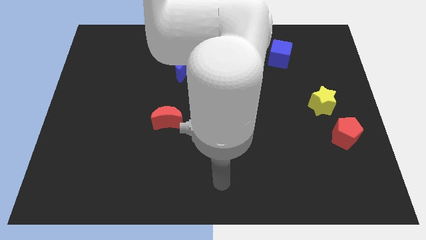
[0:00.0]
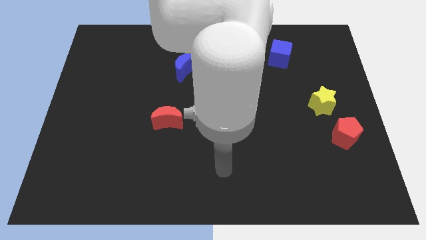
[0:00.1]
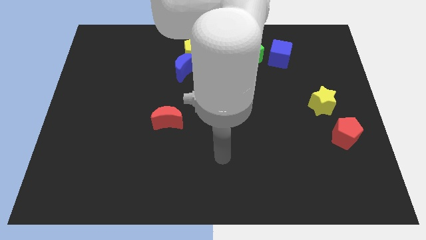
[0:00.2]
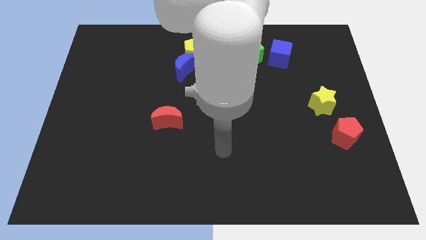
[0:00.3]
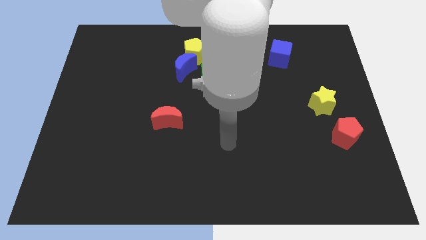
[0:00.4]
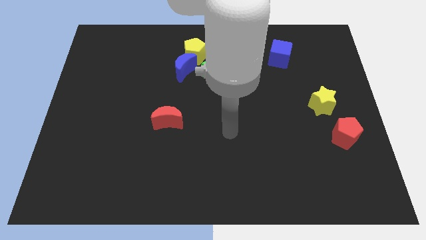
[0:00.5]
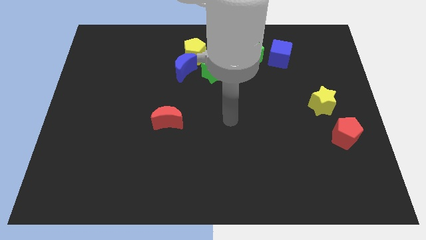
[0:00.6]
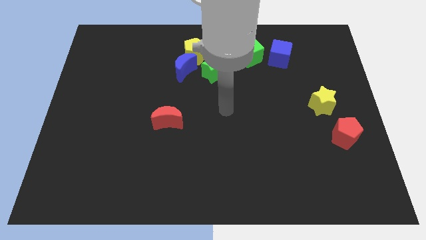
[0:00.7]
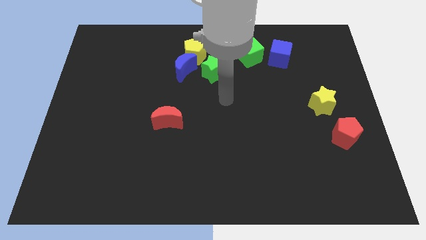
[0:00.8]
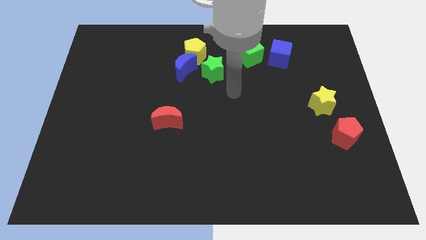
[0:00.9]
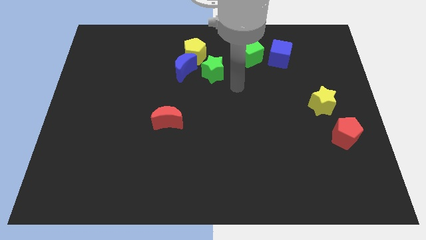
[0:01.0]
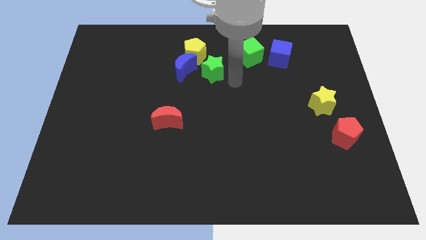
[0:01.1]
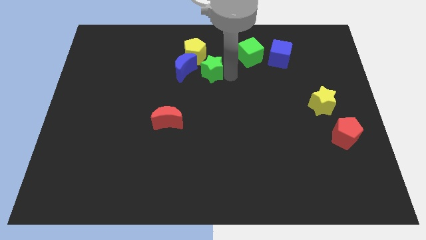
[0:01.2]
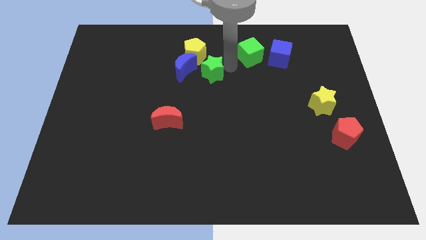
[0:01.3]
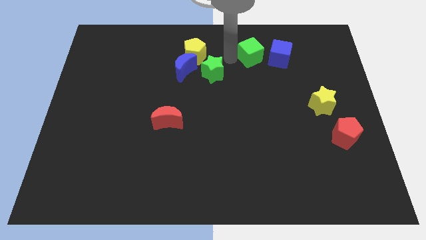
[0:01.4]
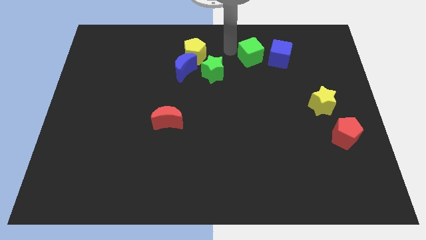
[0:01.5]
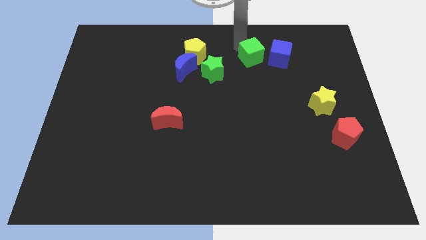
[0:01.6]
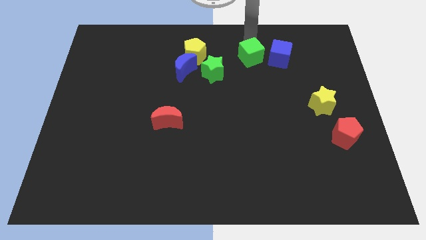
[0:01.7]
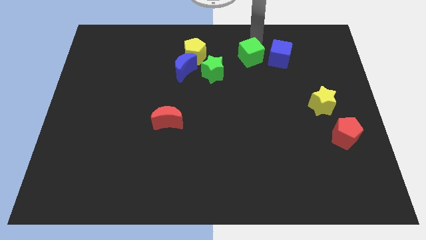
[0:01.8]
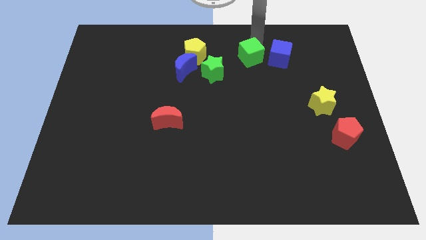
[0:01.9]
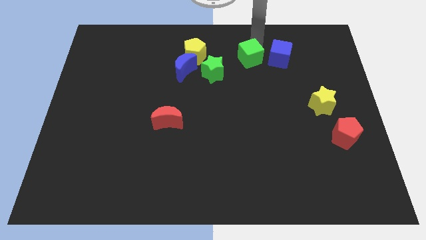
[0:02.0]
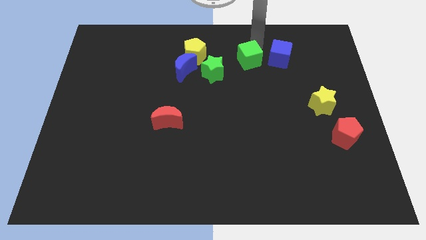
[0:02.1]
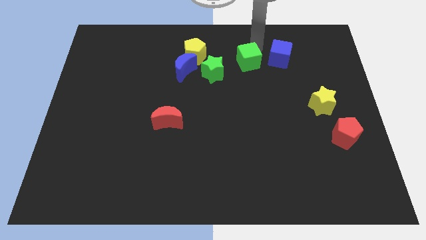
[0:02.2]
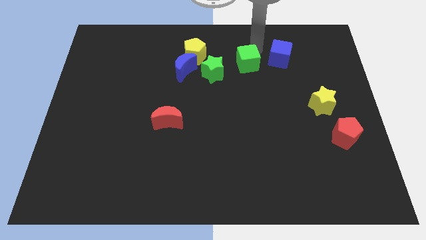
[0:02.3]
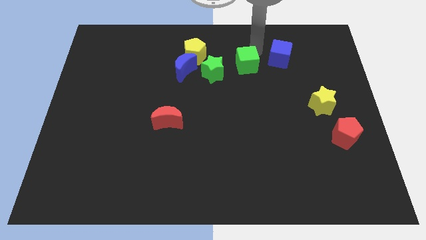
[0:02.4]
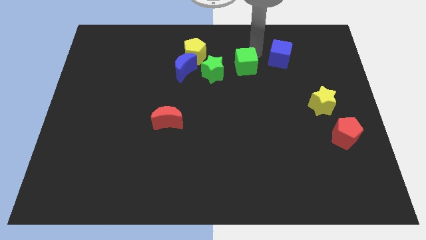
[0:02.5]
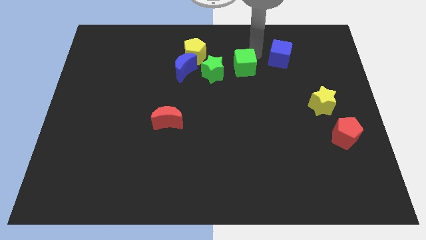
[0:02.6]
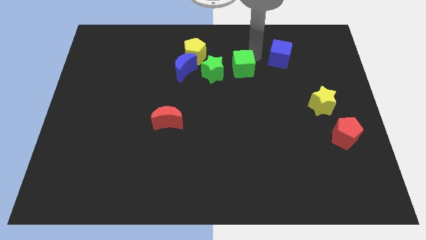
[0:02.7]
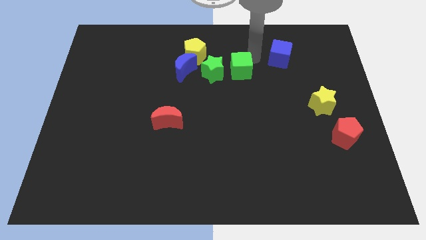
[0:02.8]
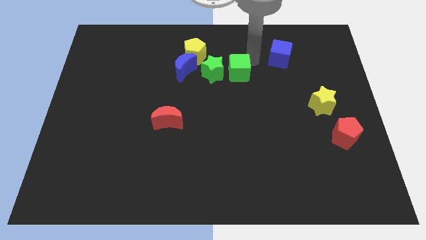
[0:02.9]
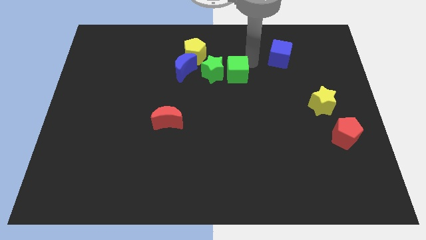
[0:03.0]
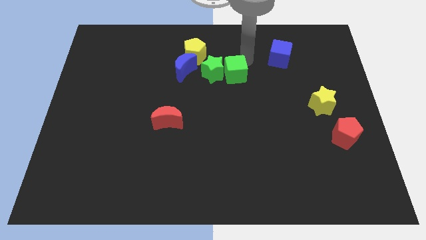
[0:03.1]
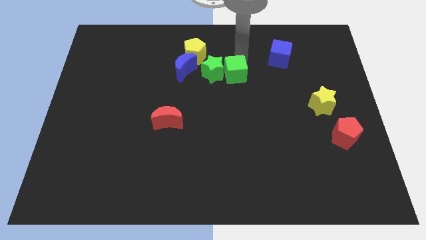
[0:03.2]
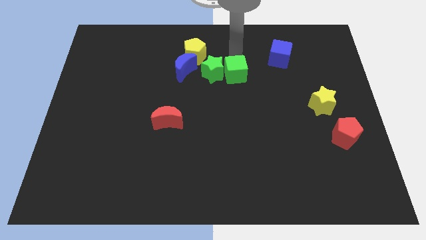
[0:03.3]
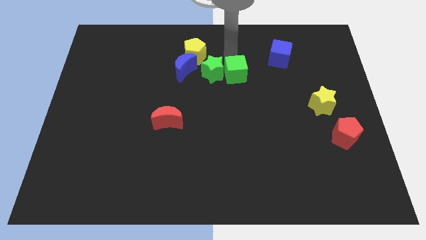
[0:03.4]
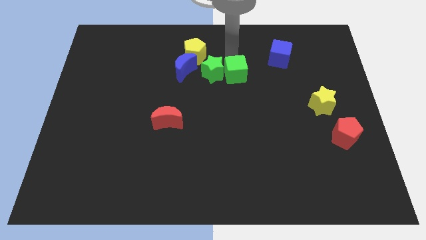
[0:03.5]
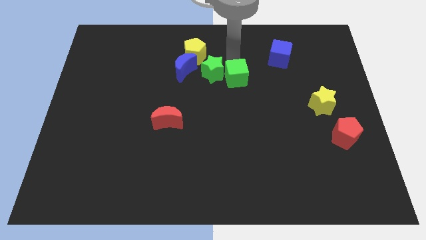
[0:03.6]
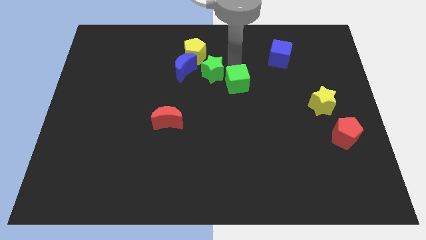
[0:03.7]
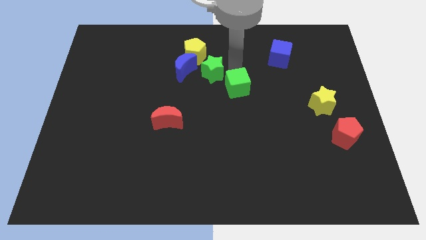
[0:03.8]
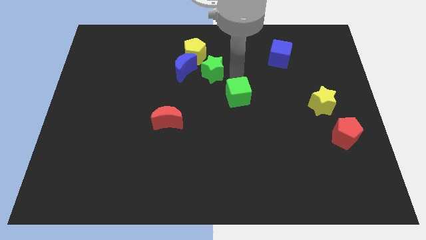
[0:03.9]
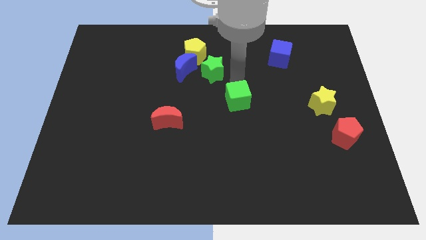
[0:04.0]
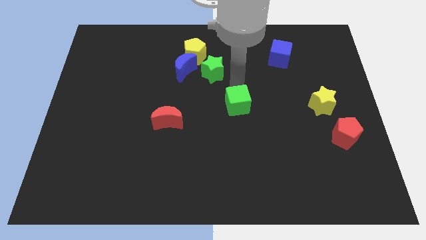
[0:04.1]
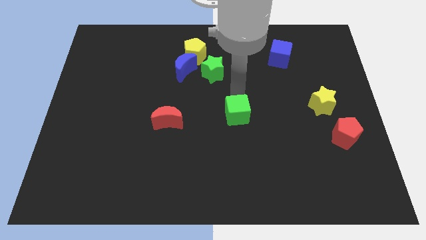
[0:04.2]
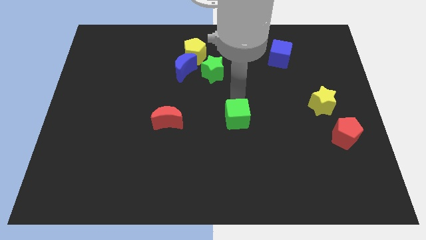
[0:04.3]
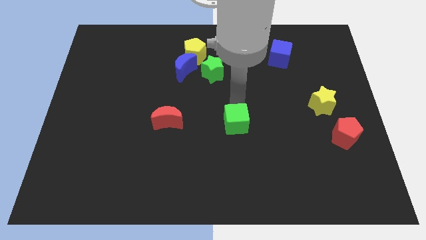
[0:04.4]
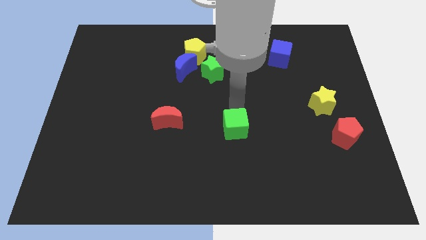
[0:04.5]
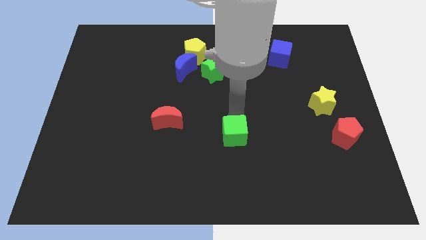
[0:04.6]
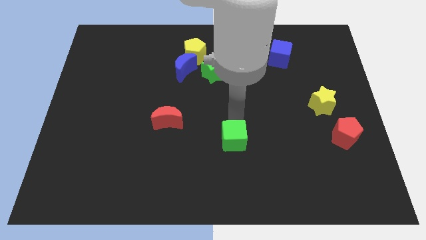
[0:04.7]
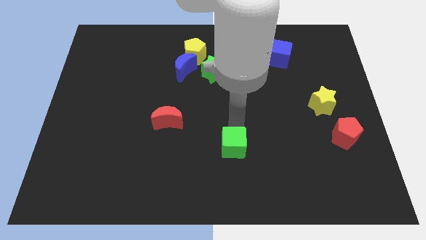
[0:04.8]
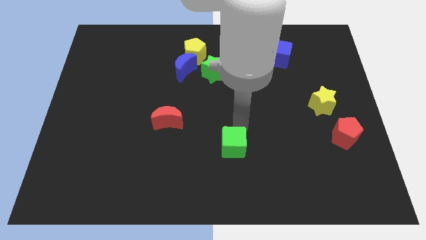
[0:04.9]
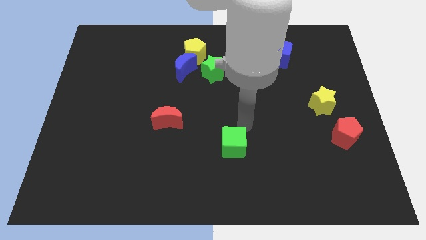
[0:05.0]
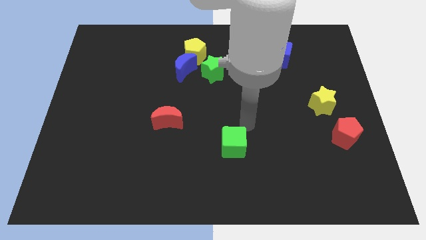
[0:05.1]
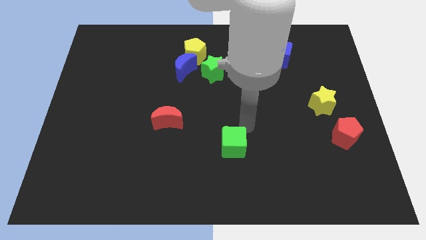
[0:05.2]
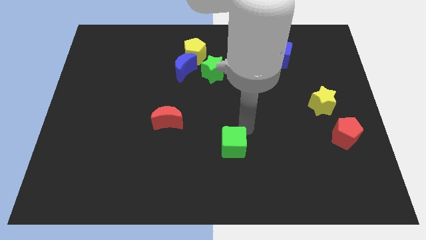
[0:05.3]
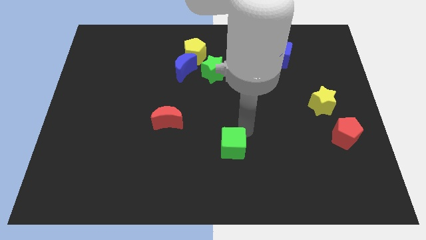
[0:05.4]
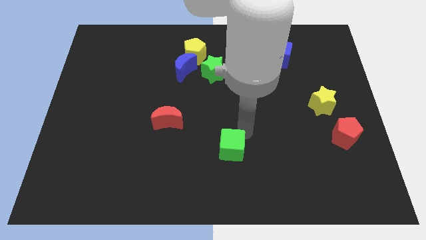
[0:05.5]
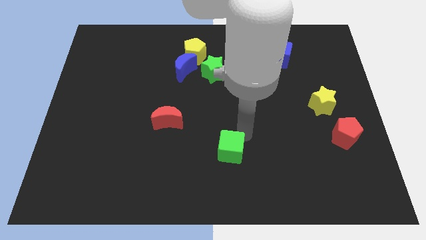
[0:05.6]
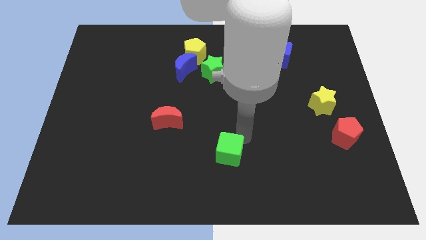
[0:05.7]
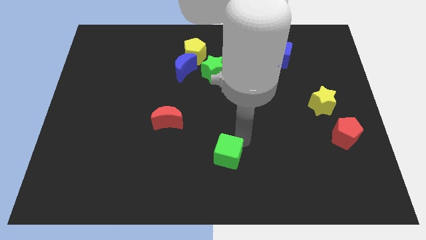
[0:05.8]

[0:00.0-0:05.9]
move the green cube to the bottom side

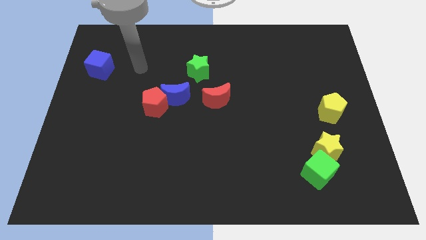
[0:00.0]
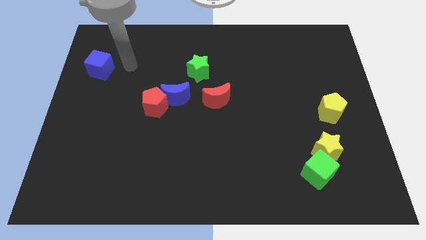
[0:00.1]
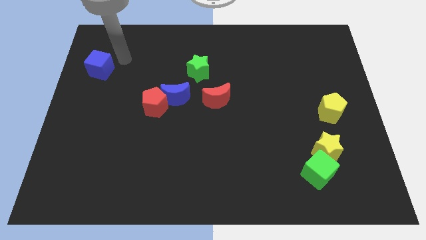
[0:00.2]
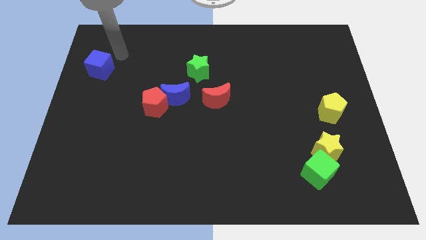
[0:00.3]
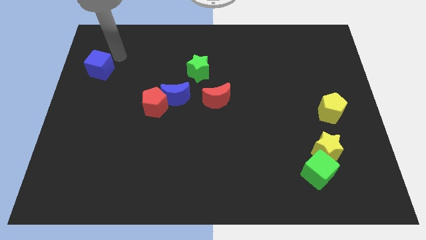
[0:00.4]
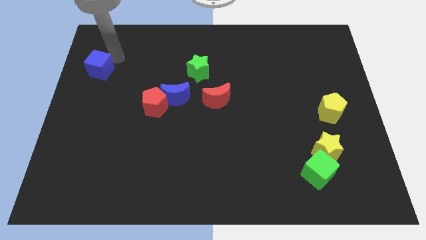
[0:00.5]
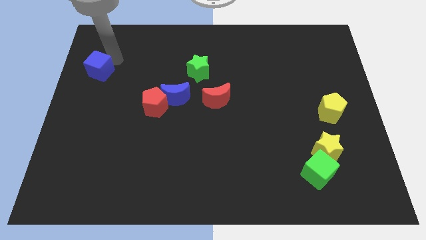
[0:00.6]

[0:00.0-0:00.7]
move the blue cube to the left side
